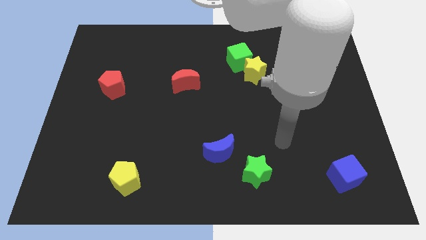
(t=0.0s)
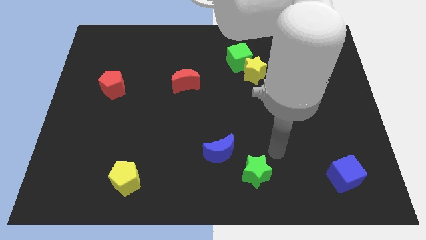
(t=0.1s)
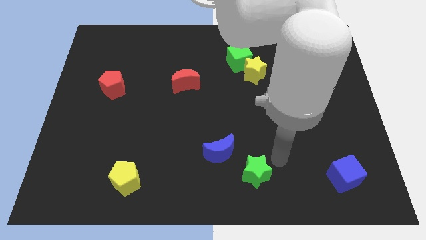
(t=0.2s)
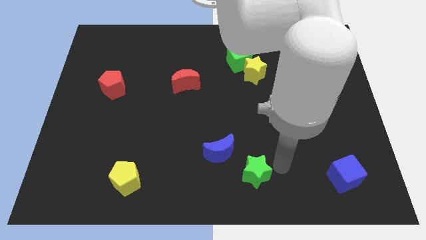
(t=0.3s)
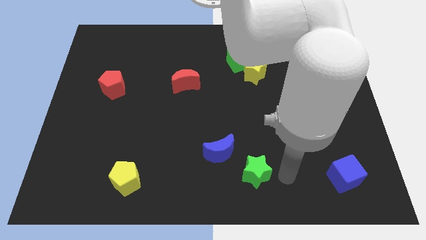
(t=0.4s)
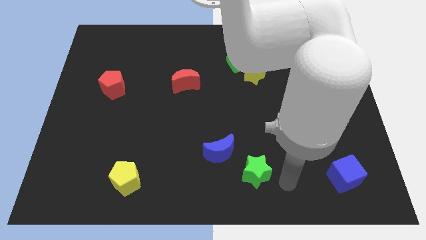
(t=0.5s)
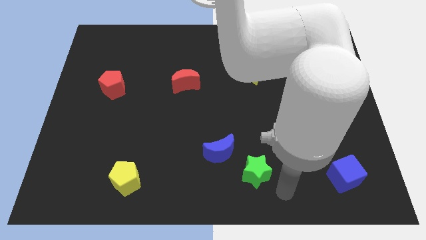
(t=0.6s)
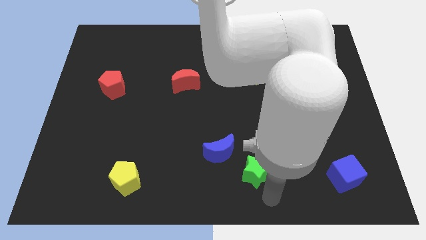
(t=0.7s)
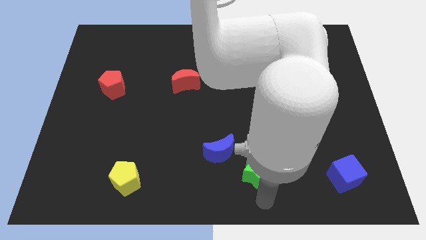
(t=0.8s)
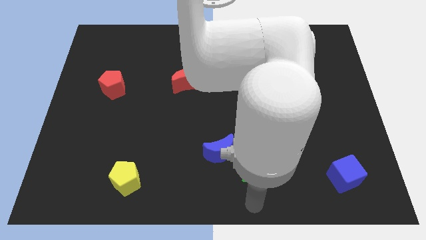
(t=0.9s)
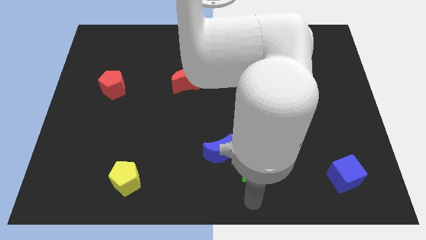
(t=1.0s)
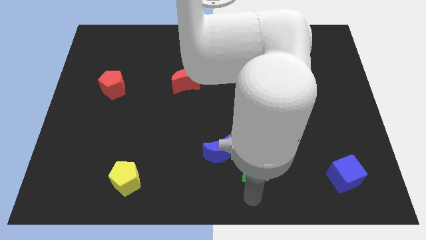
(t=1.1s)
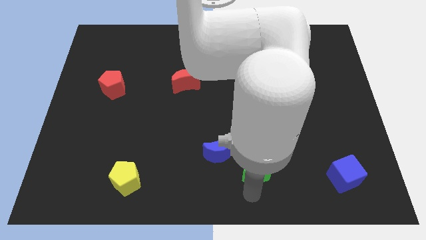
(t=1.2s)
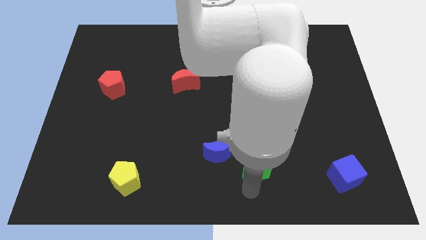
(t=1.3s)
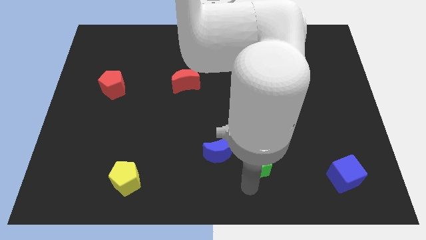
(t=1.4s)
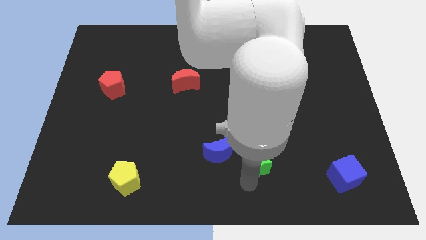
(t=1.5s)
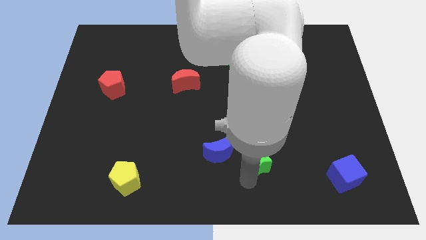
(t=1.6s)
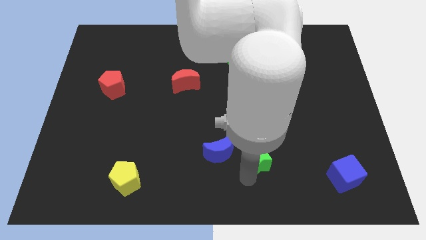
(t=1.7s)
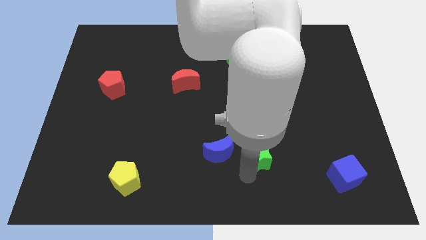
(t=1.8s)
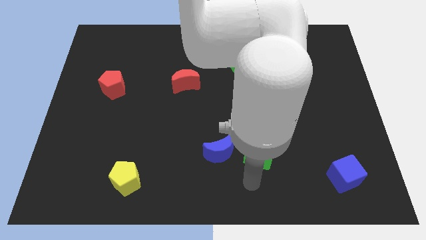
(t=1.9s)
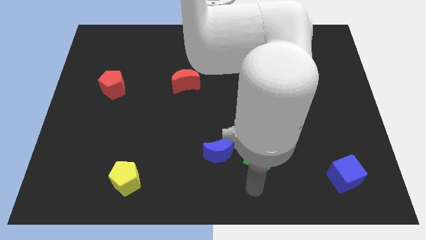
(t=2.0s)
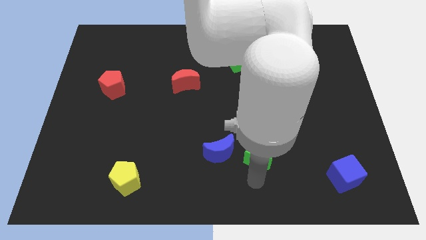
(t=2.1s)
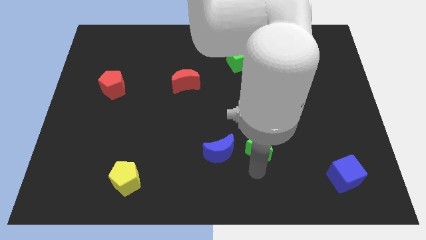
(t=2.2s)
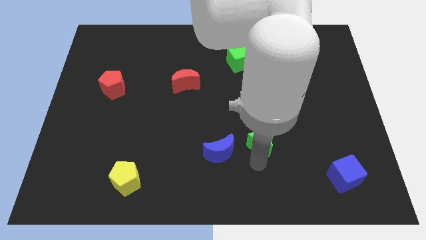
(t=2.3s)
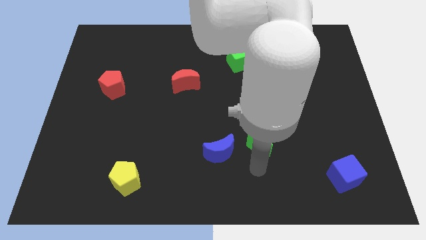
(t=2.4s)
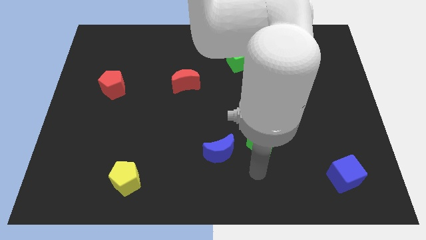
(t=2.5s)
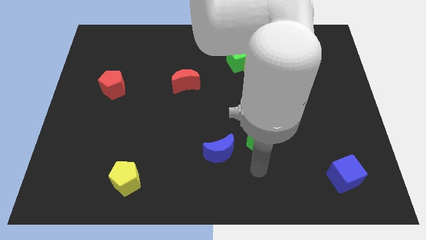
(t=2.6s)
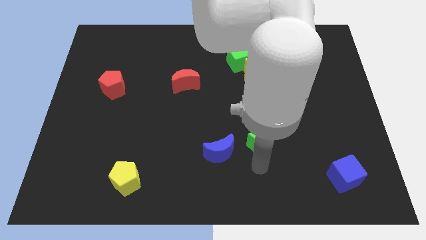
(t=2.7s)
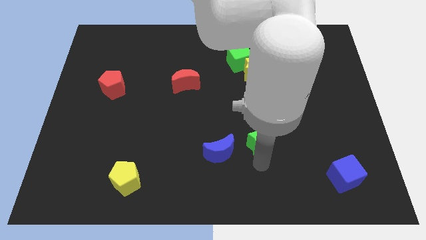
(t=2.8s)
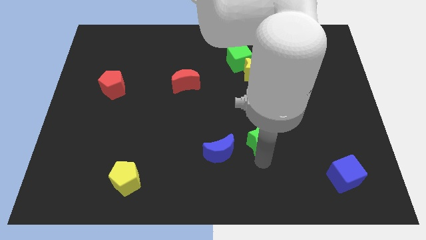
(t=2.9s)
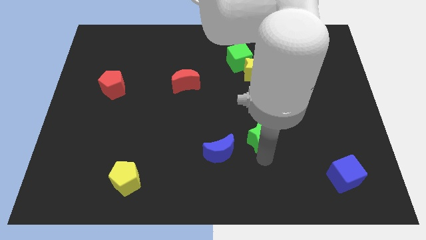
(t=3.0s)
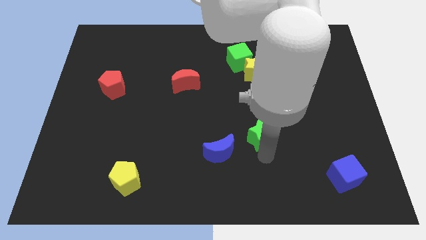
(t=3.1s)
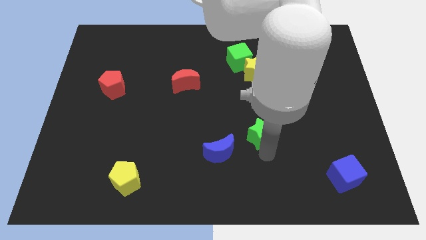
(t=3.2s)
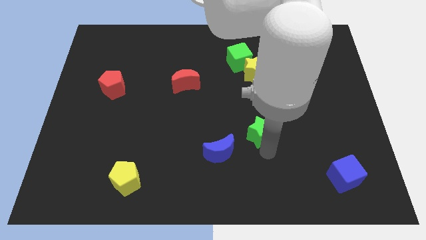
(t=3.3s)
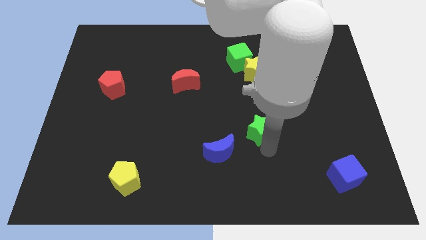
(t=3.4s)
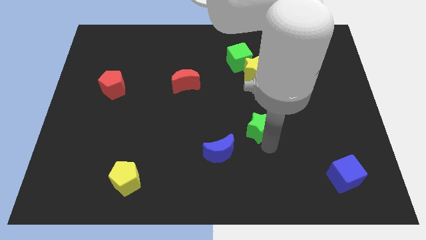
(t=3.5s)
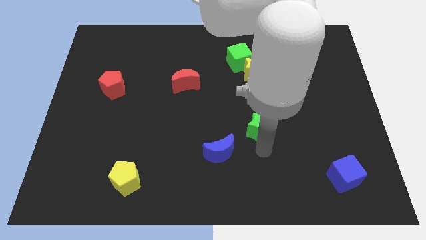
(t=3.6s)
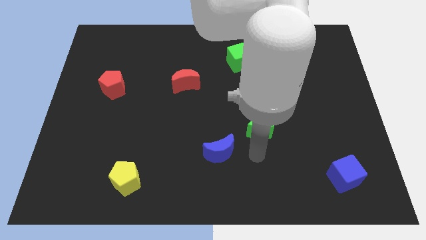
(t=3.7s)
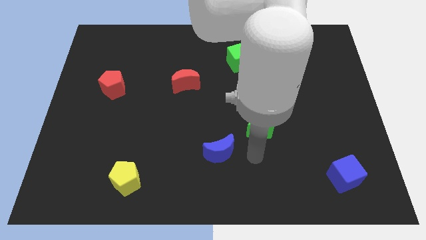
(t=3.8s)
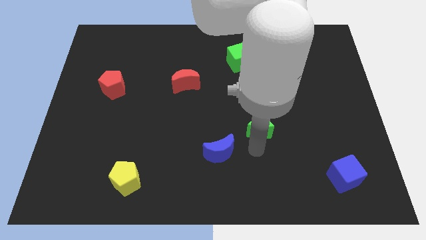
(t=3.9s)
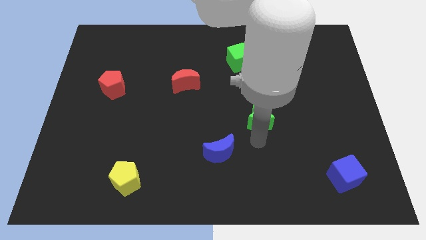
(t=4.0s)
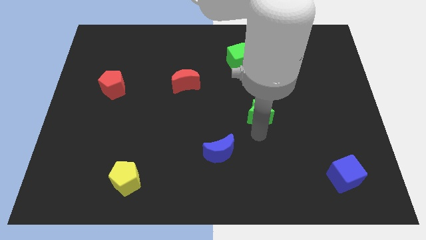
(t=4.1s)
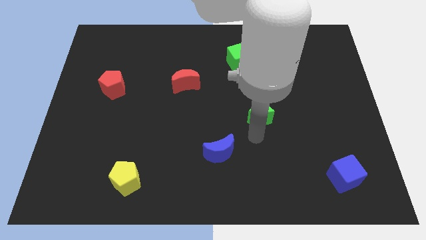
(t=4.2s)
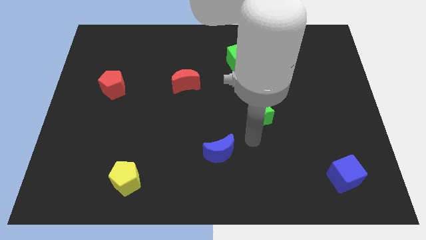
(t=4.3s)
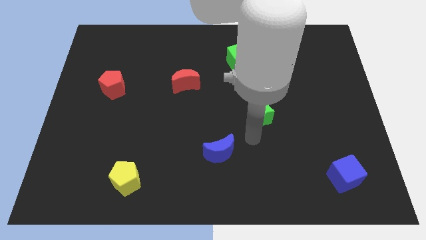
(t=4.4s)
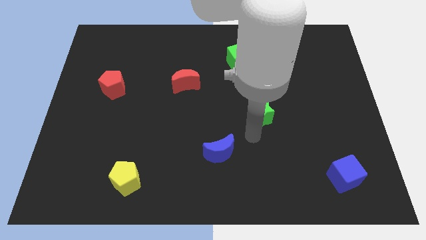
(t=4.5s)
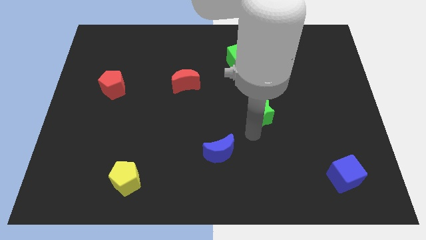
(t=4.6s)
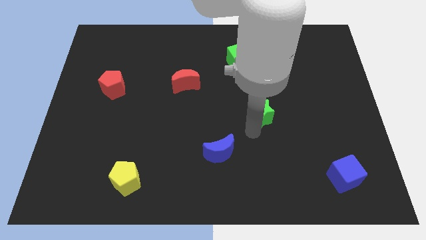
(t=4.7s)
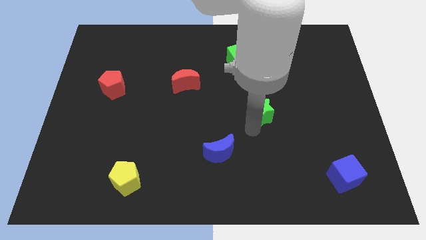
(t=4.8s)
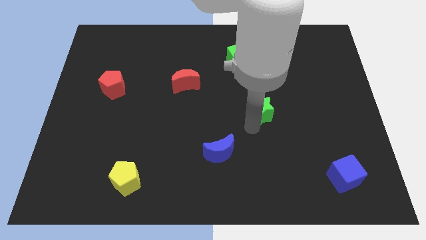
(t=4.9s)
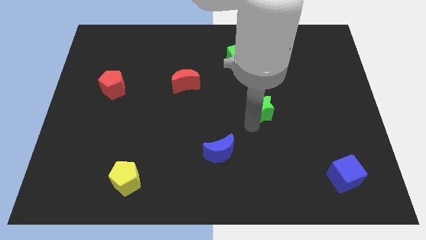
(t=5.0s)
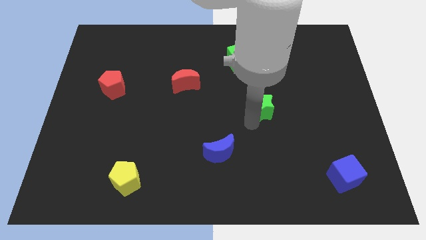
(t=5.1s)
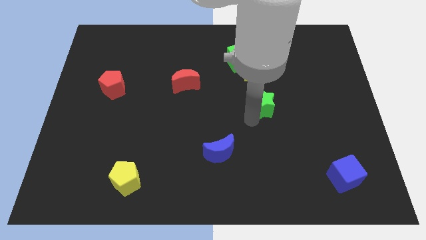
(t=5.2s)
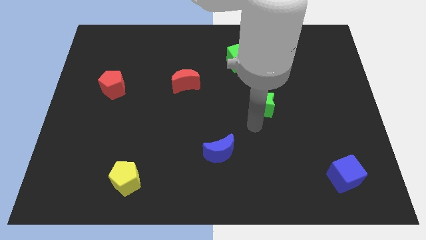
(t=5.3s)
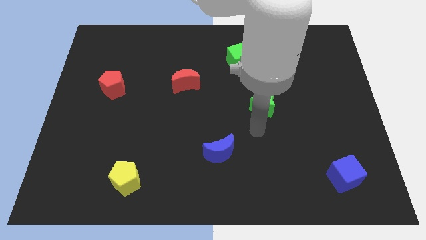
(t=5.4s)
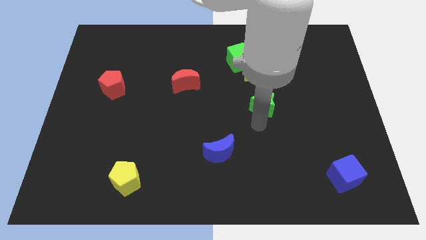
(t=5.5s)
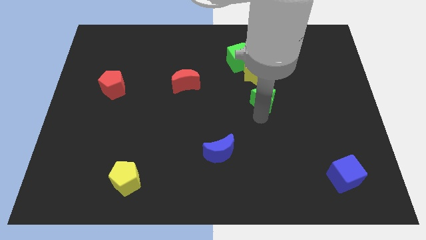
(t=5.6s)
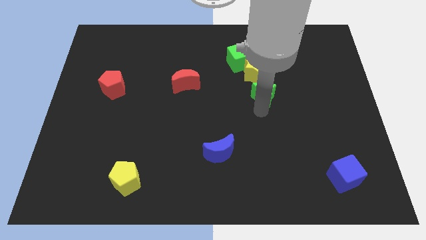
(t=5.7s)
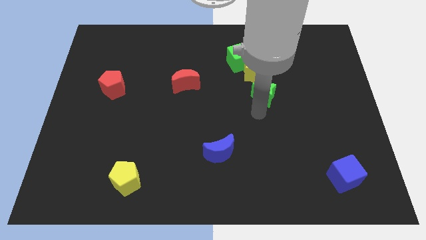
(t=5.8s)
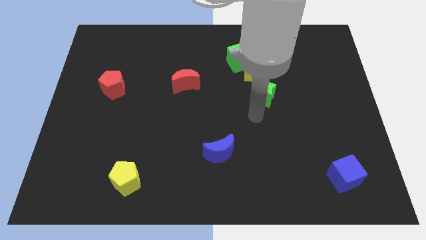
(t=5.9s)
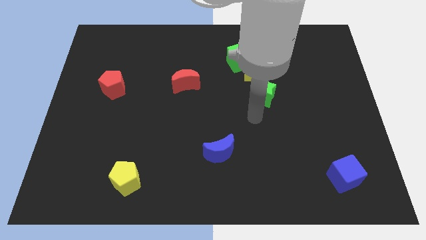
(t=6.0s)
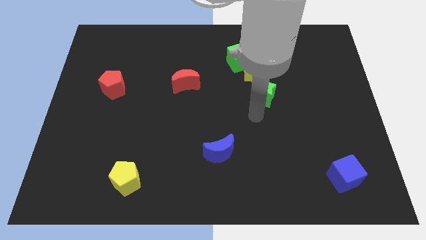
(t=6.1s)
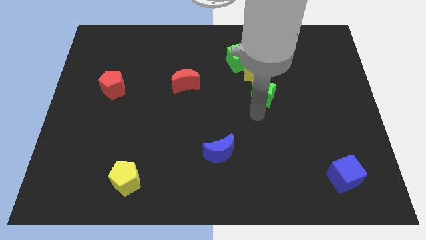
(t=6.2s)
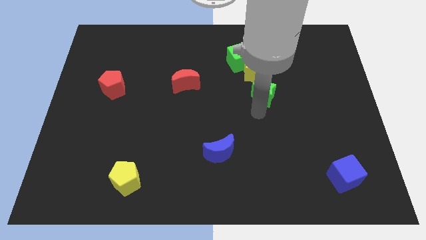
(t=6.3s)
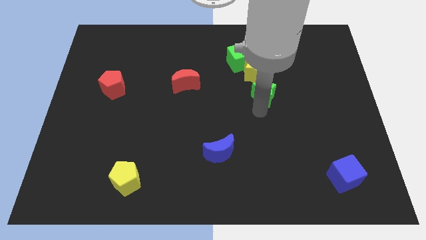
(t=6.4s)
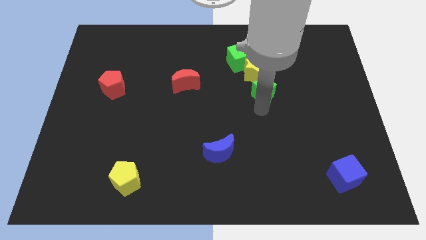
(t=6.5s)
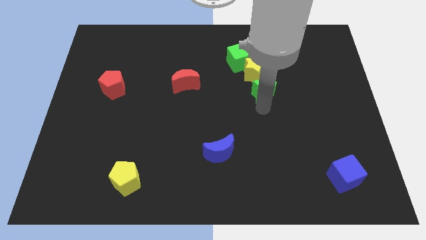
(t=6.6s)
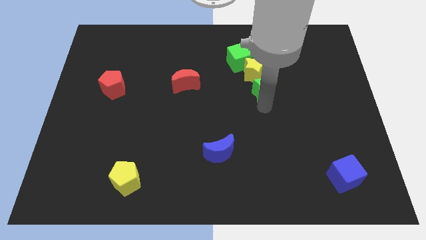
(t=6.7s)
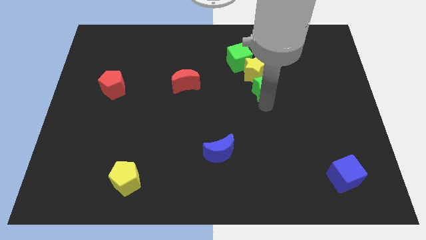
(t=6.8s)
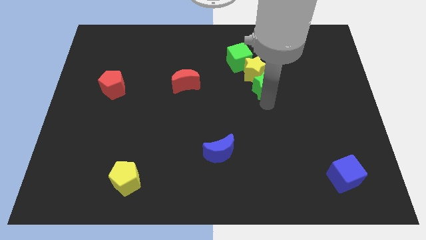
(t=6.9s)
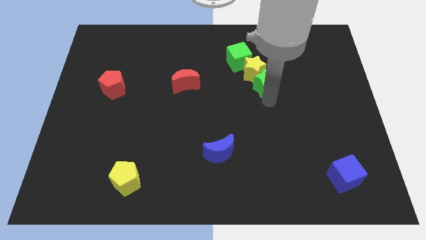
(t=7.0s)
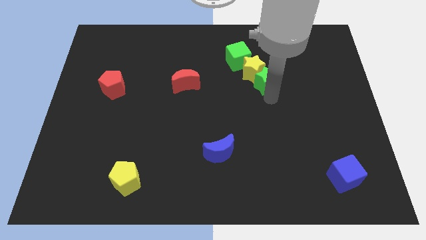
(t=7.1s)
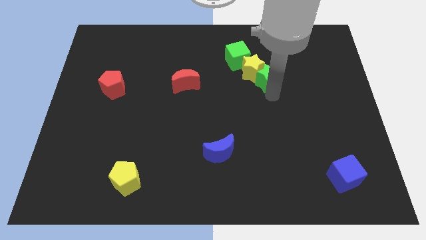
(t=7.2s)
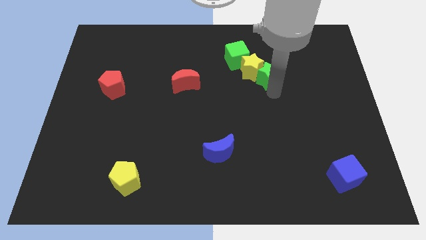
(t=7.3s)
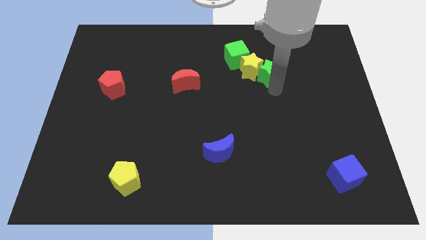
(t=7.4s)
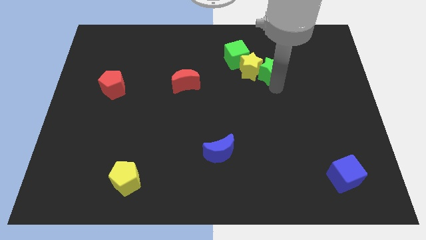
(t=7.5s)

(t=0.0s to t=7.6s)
move the green star diagonally up and to the right of the yellow star
